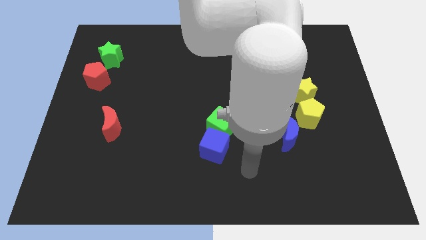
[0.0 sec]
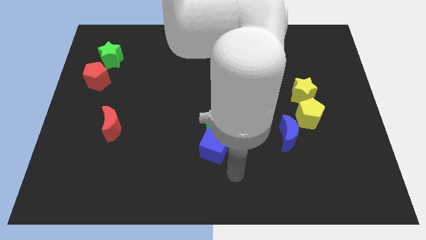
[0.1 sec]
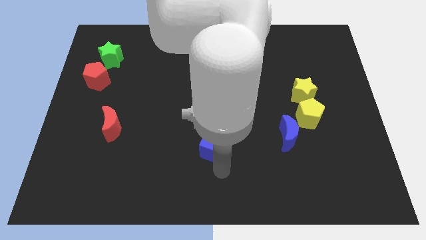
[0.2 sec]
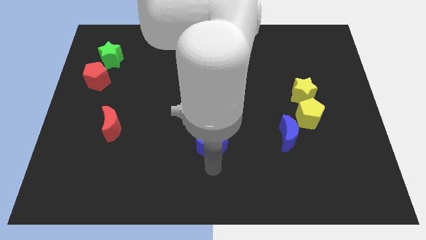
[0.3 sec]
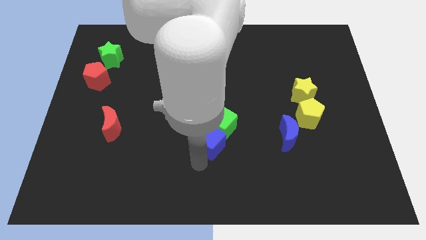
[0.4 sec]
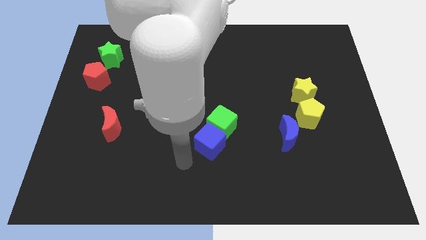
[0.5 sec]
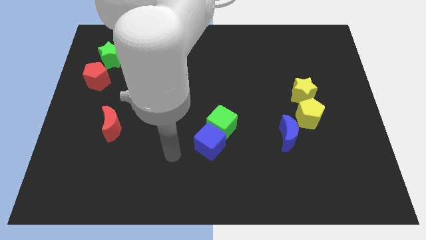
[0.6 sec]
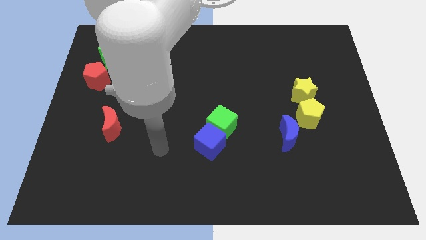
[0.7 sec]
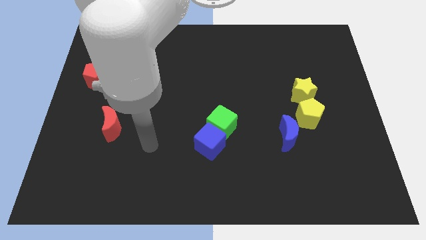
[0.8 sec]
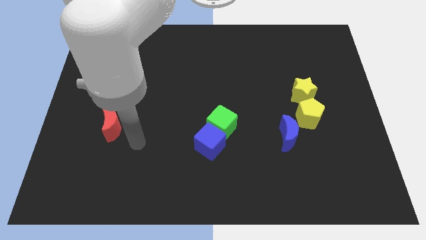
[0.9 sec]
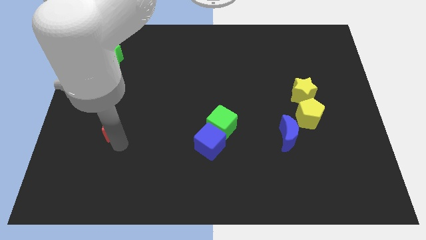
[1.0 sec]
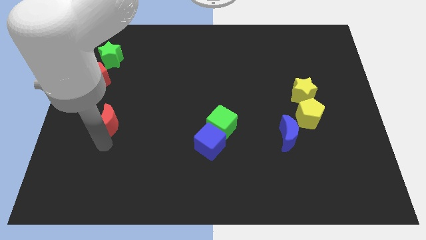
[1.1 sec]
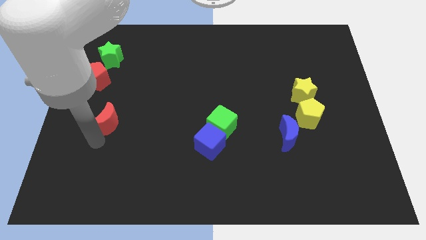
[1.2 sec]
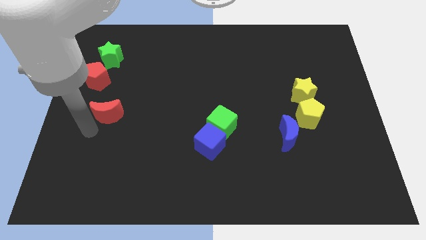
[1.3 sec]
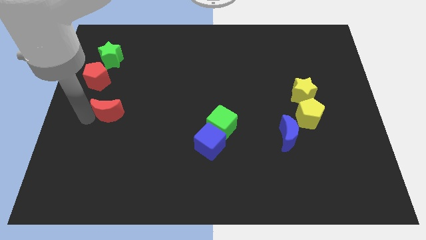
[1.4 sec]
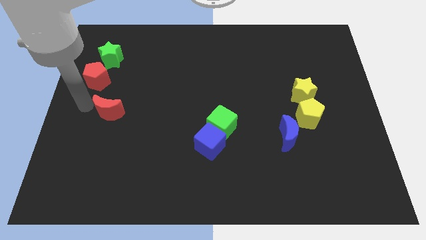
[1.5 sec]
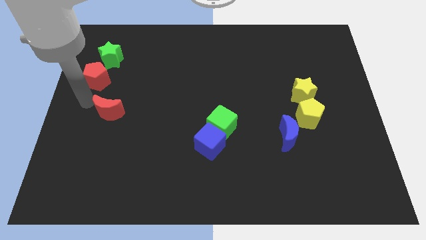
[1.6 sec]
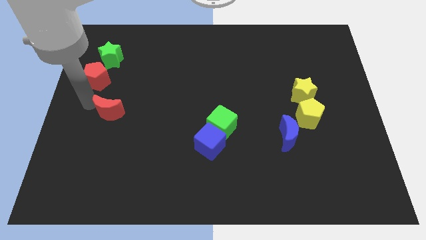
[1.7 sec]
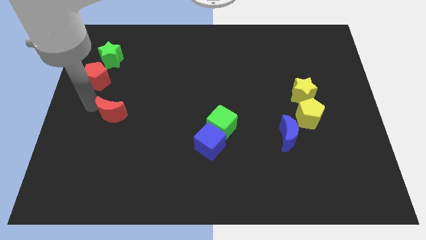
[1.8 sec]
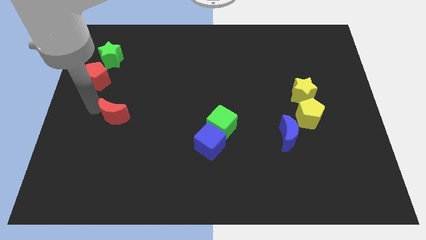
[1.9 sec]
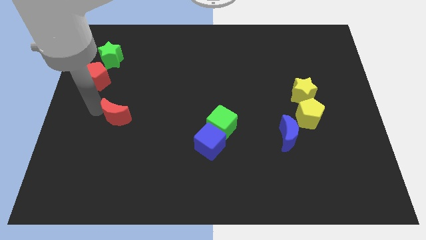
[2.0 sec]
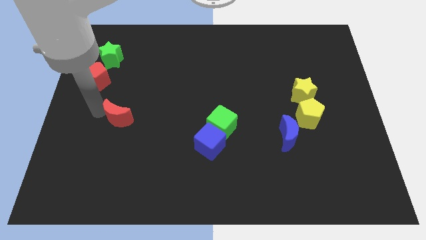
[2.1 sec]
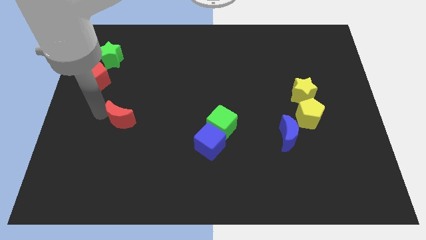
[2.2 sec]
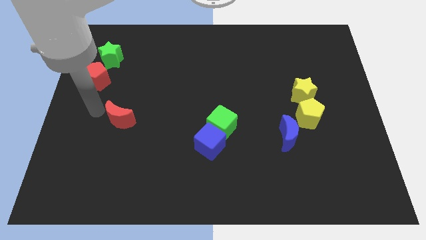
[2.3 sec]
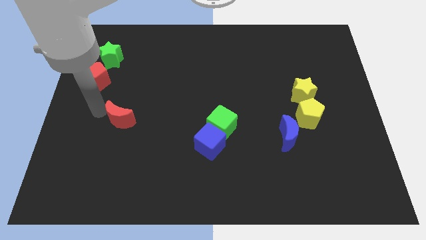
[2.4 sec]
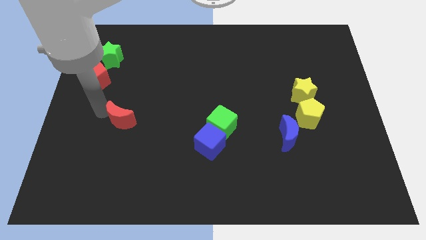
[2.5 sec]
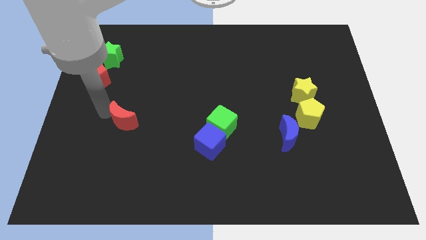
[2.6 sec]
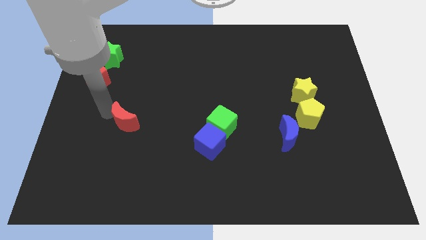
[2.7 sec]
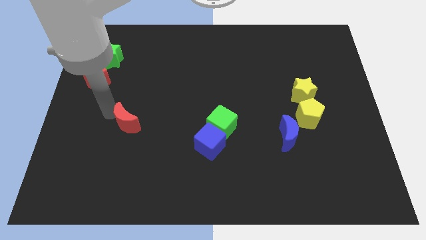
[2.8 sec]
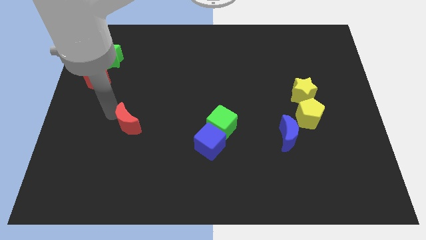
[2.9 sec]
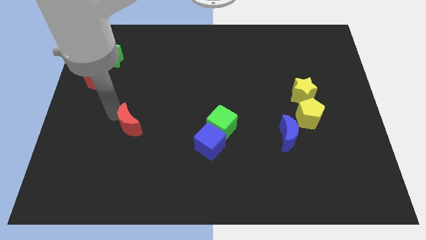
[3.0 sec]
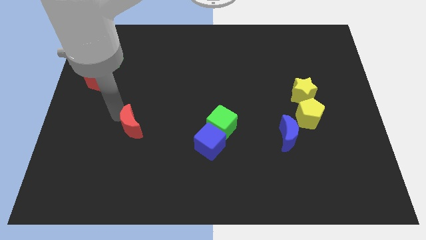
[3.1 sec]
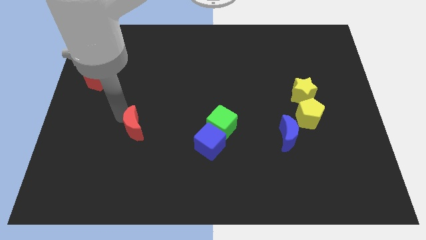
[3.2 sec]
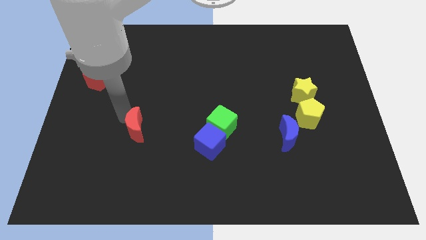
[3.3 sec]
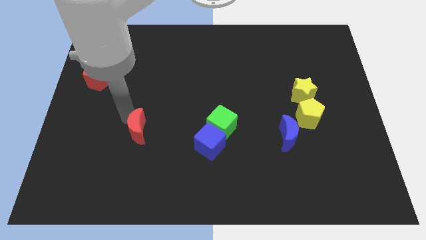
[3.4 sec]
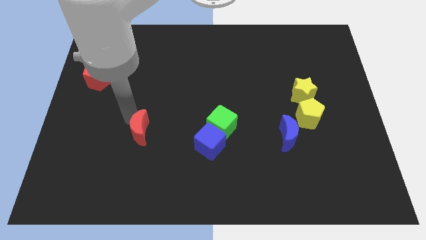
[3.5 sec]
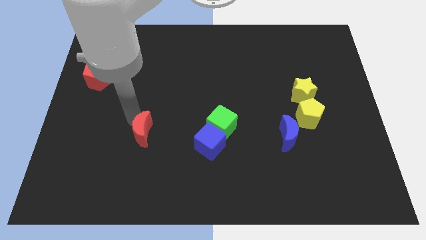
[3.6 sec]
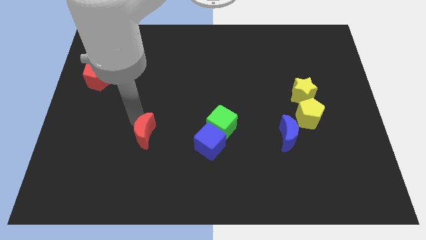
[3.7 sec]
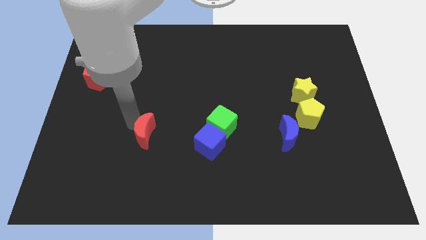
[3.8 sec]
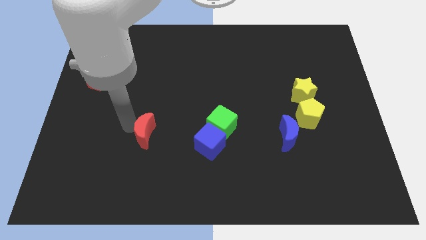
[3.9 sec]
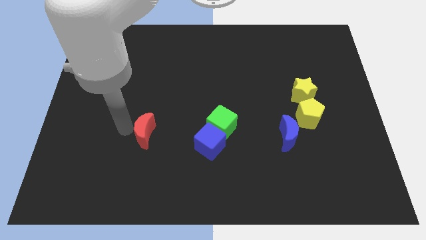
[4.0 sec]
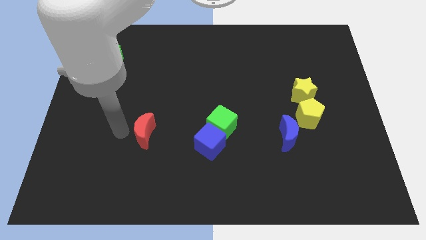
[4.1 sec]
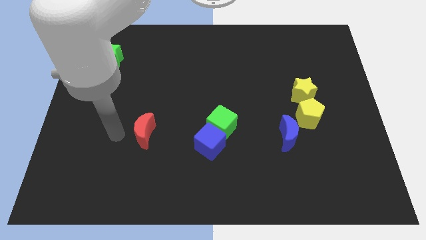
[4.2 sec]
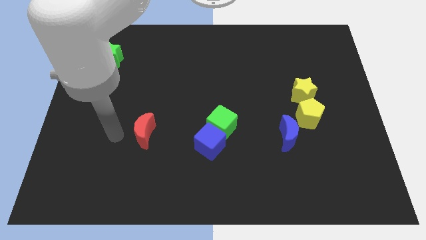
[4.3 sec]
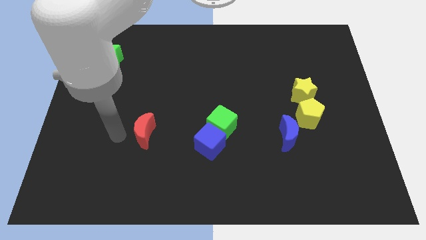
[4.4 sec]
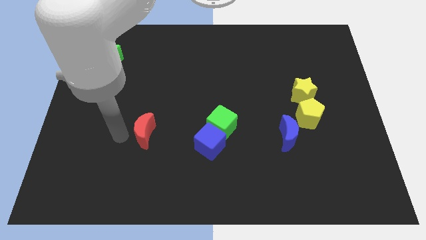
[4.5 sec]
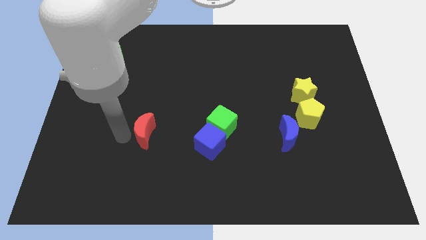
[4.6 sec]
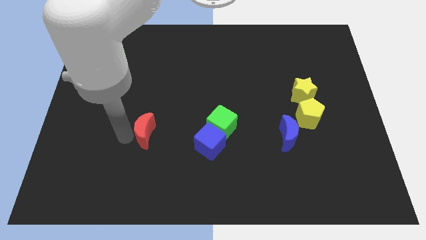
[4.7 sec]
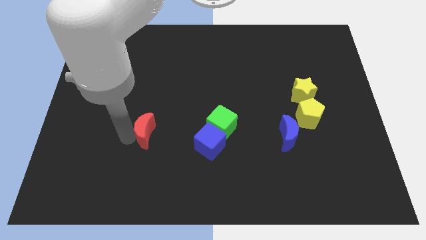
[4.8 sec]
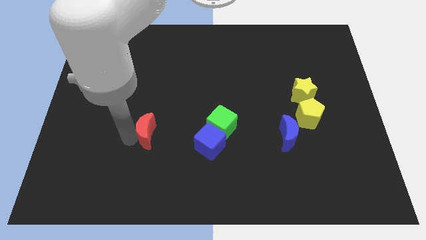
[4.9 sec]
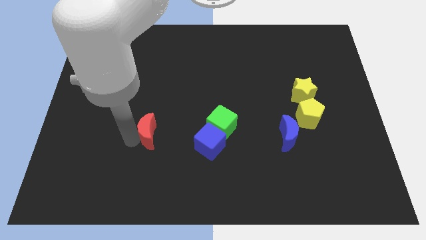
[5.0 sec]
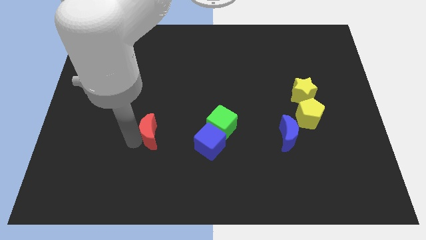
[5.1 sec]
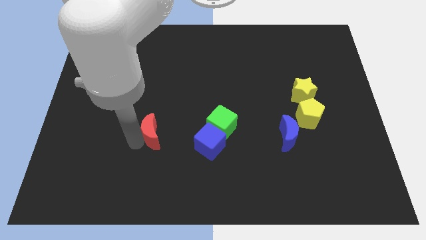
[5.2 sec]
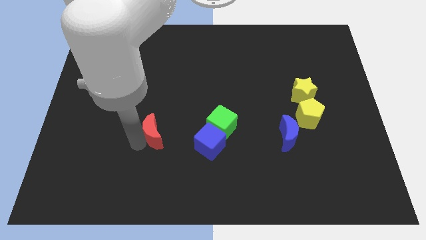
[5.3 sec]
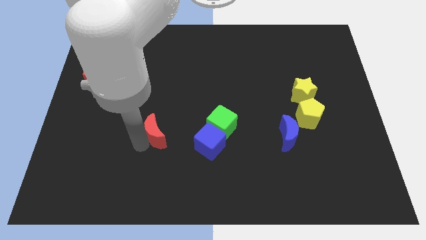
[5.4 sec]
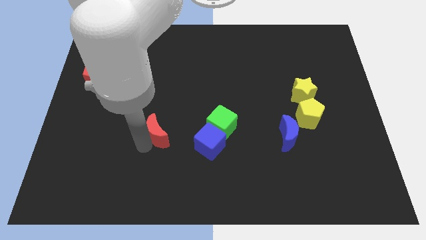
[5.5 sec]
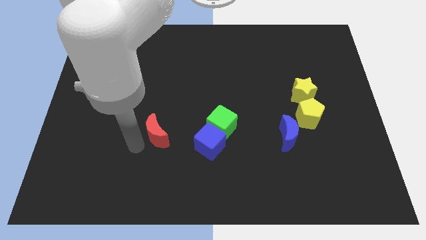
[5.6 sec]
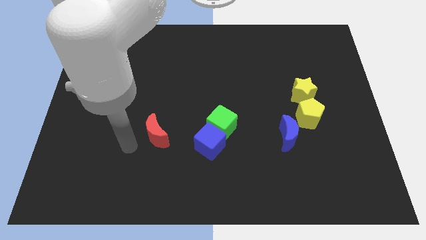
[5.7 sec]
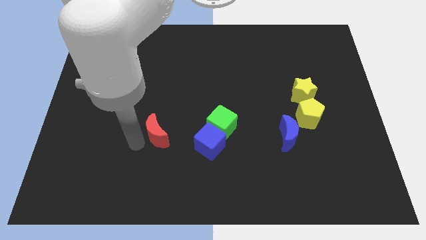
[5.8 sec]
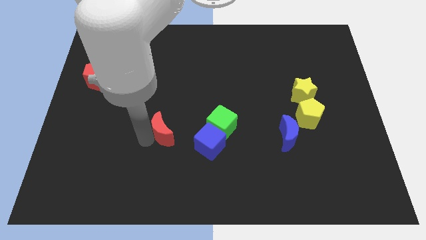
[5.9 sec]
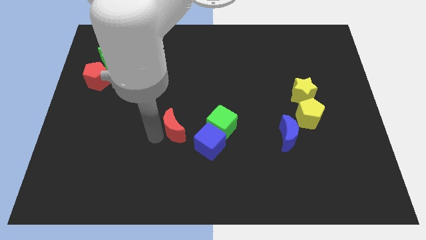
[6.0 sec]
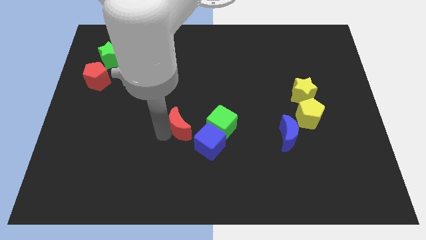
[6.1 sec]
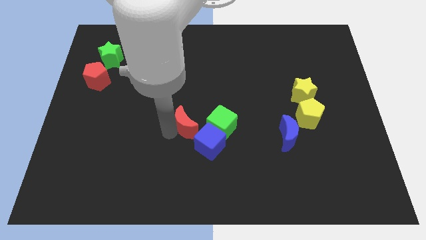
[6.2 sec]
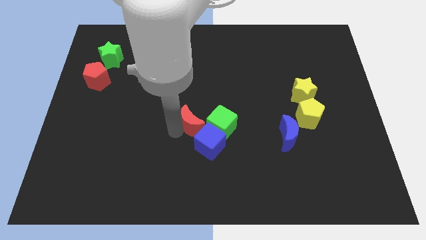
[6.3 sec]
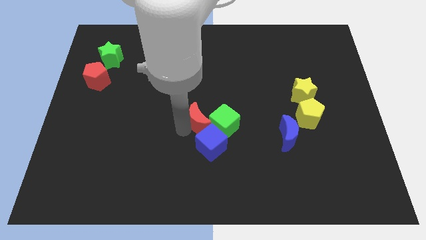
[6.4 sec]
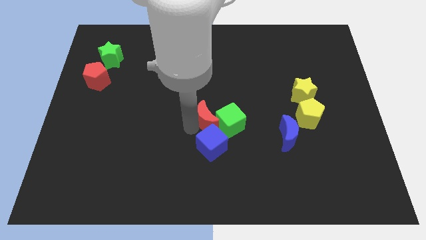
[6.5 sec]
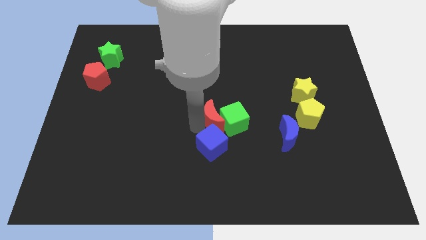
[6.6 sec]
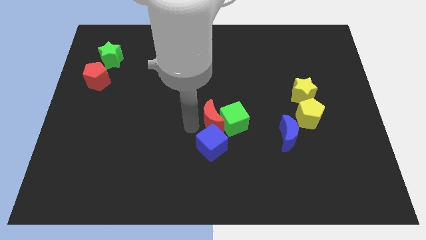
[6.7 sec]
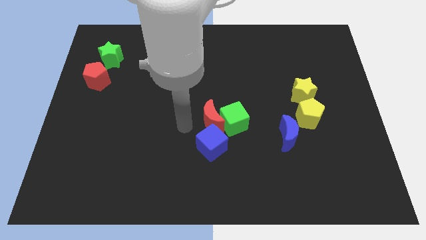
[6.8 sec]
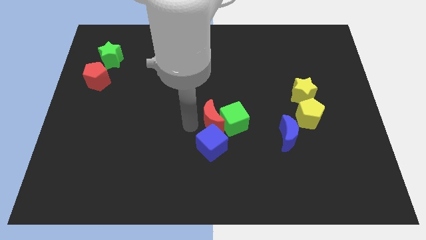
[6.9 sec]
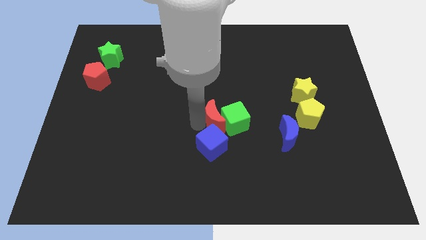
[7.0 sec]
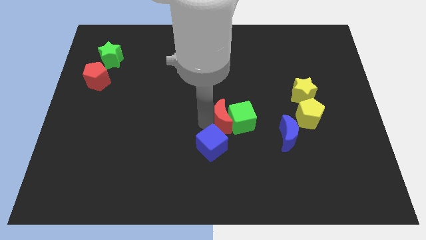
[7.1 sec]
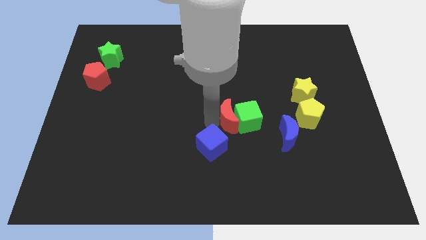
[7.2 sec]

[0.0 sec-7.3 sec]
push the red moon just left of the blue moon
